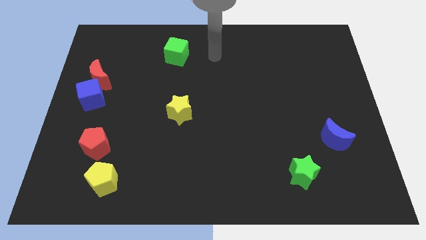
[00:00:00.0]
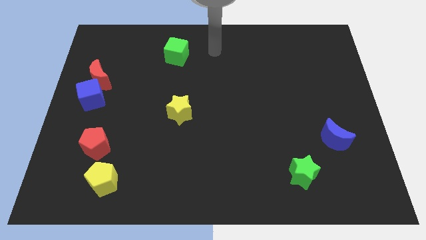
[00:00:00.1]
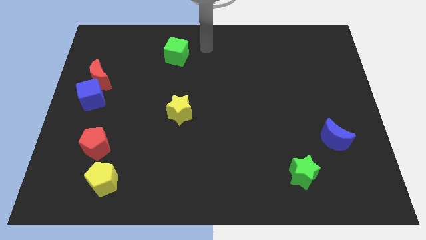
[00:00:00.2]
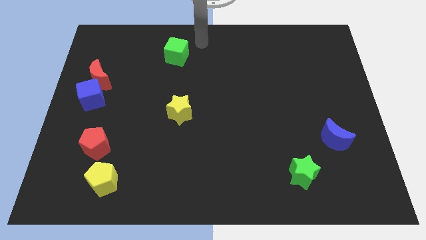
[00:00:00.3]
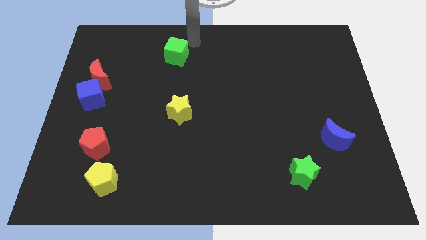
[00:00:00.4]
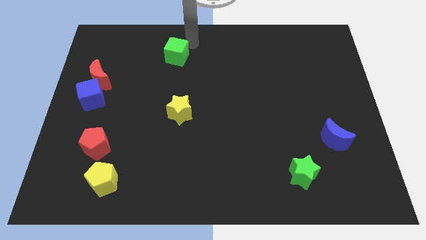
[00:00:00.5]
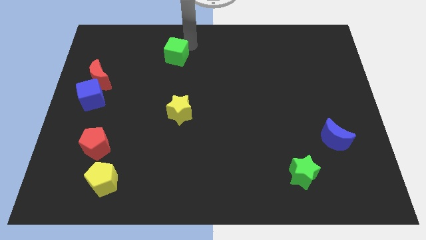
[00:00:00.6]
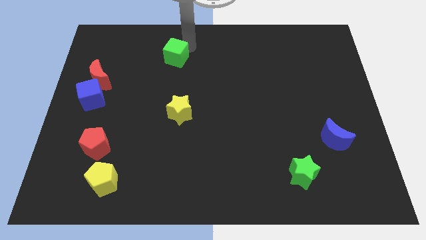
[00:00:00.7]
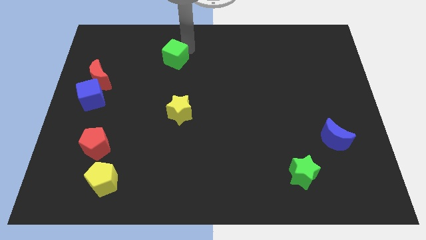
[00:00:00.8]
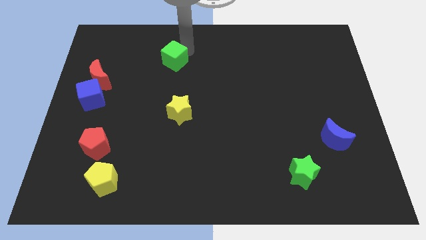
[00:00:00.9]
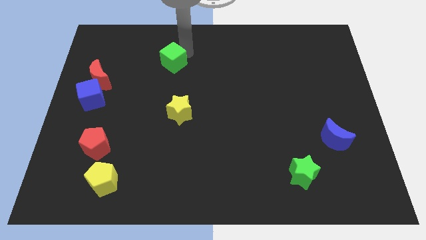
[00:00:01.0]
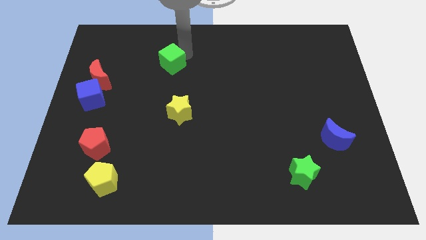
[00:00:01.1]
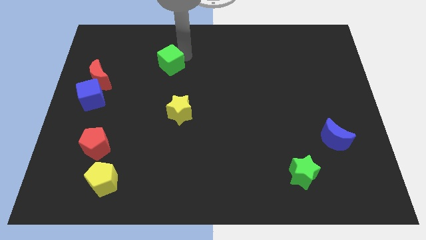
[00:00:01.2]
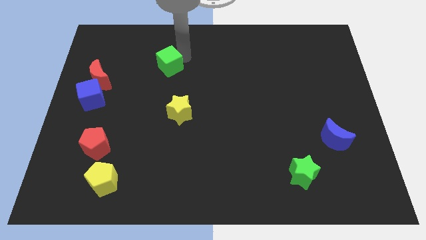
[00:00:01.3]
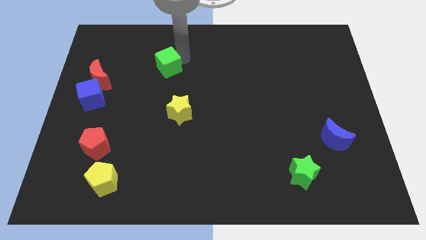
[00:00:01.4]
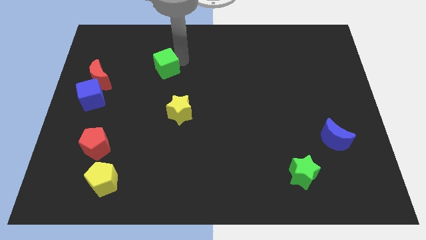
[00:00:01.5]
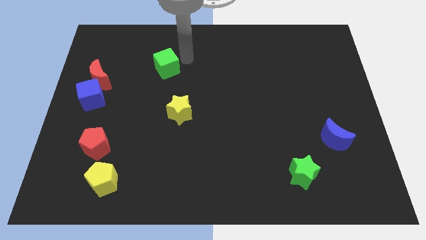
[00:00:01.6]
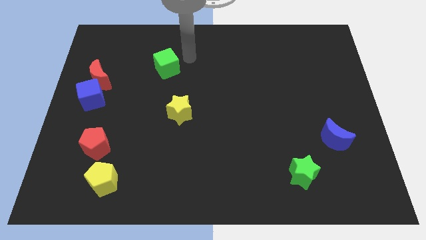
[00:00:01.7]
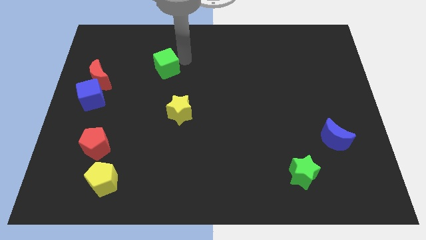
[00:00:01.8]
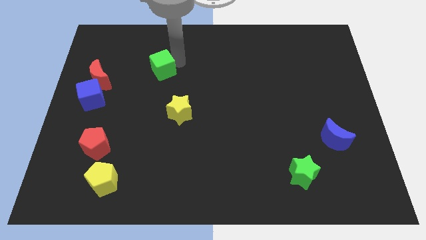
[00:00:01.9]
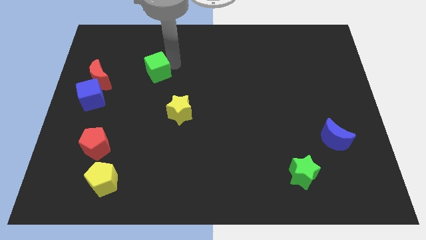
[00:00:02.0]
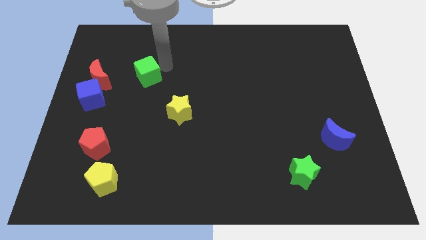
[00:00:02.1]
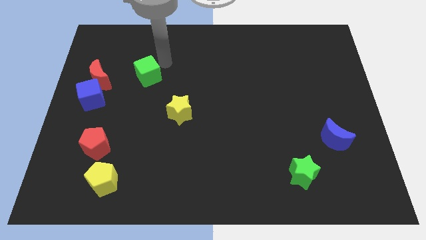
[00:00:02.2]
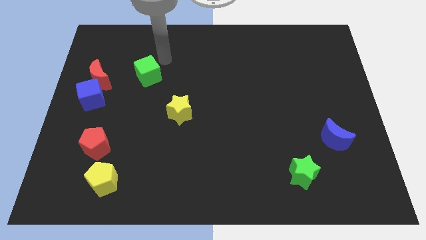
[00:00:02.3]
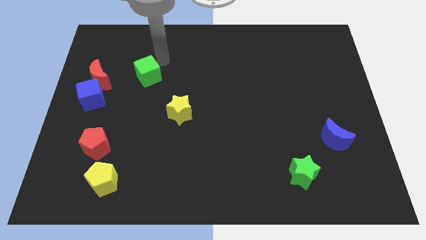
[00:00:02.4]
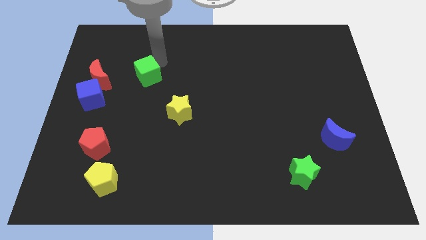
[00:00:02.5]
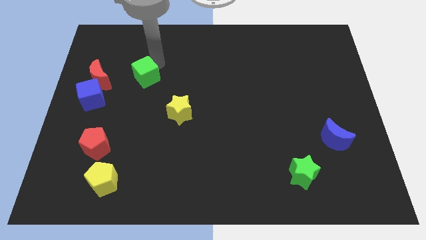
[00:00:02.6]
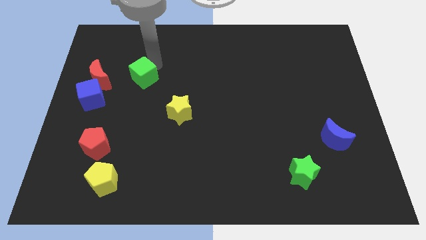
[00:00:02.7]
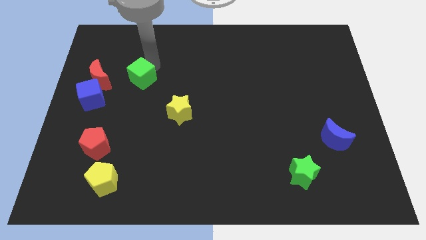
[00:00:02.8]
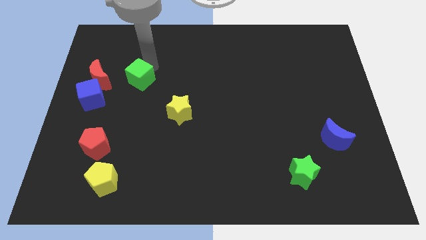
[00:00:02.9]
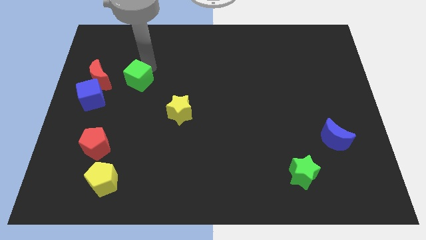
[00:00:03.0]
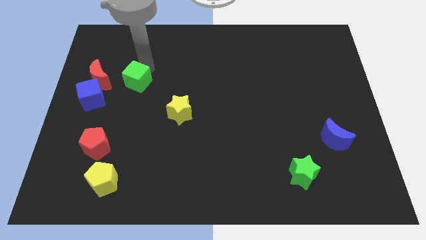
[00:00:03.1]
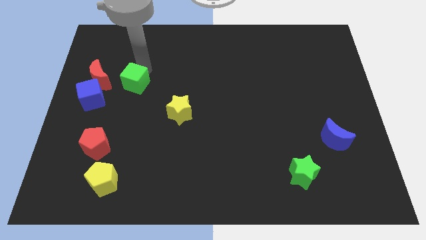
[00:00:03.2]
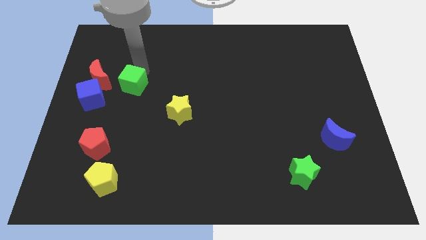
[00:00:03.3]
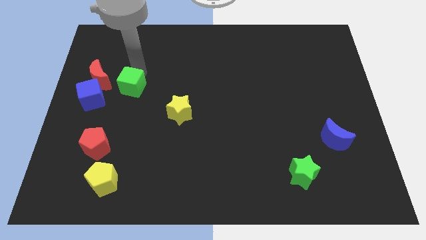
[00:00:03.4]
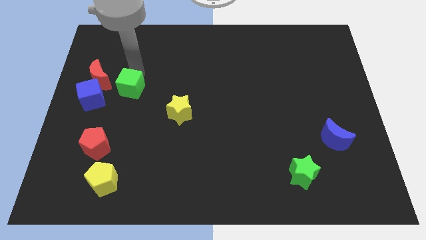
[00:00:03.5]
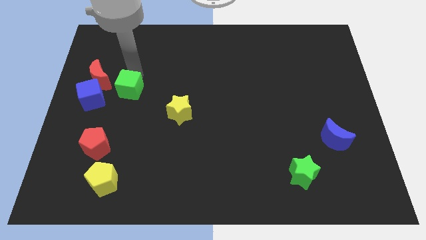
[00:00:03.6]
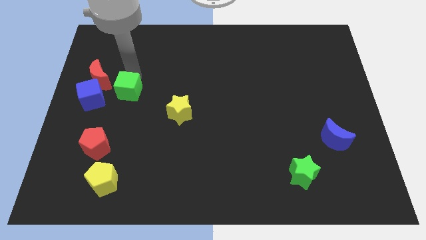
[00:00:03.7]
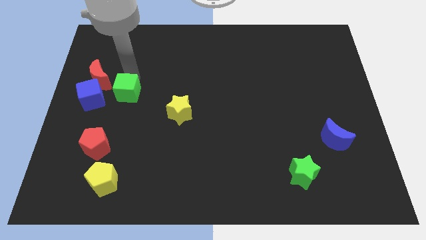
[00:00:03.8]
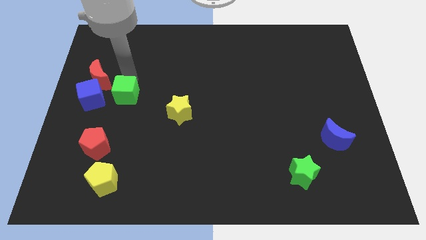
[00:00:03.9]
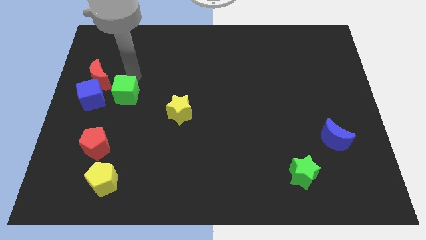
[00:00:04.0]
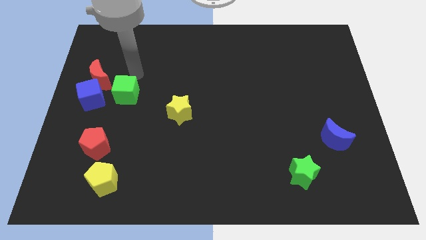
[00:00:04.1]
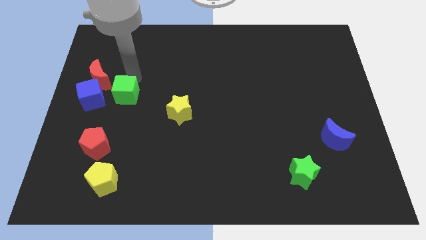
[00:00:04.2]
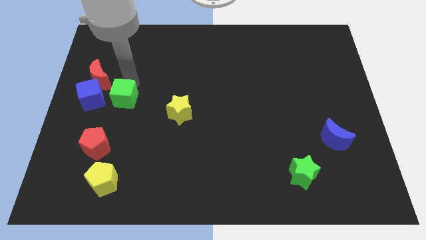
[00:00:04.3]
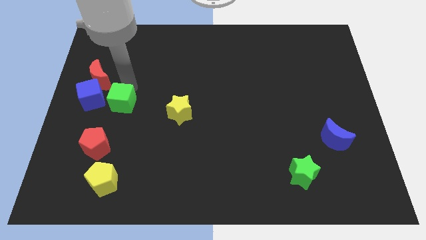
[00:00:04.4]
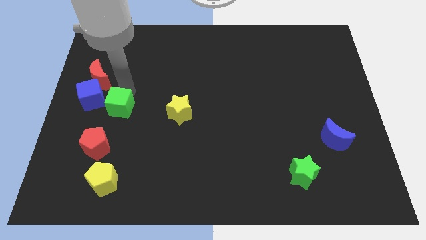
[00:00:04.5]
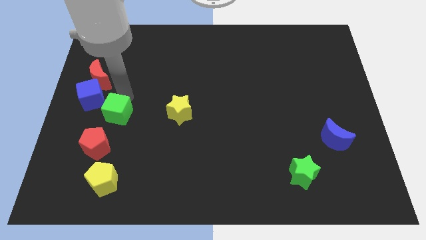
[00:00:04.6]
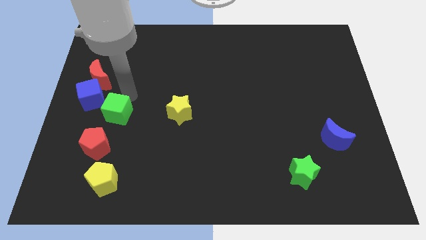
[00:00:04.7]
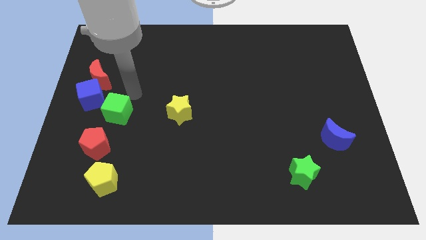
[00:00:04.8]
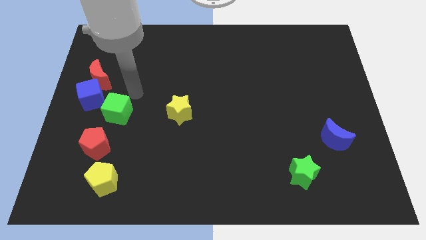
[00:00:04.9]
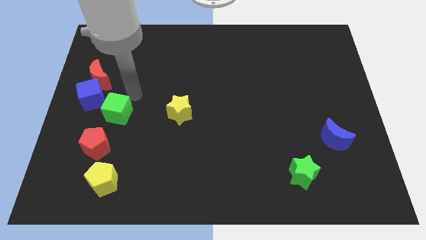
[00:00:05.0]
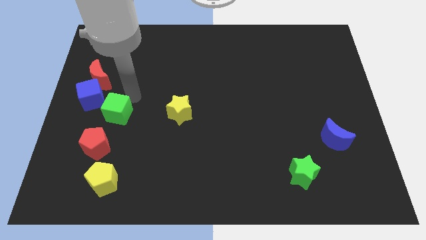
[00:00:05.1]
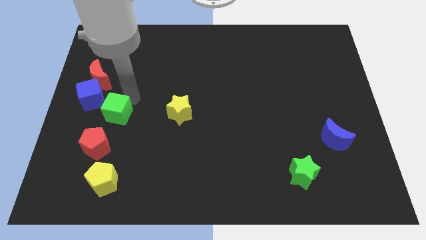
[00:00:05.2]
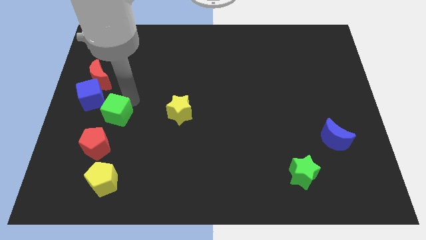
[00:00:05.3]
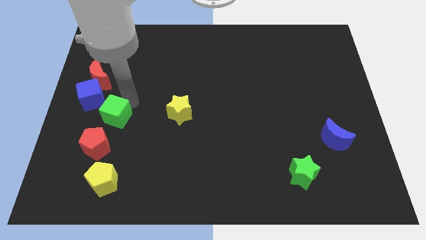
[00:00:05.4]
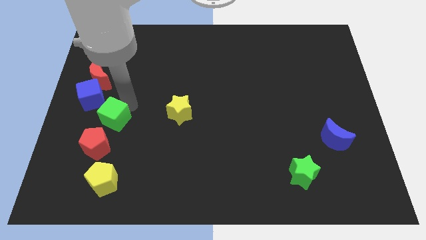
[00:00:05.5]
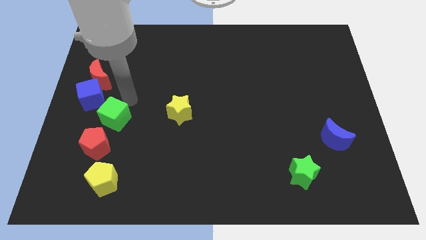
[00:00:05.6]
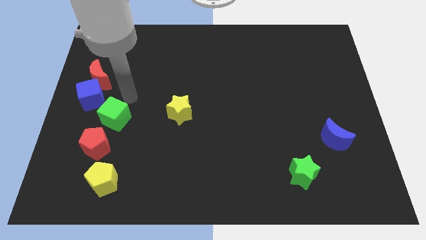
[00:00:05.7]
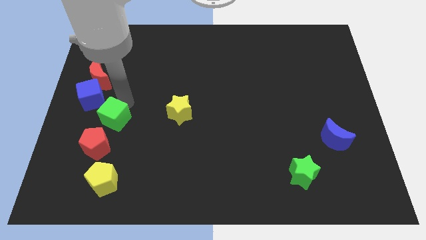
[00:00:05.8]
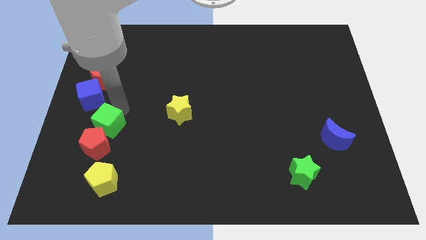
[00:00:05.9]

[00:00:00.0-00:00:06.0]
slide the green cube to the red pentagon

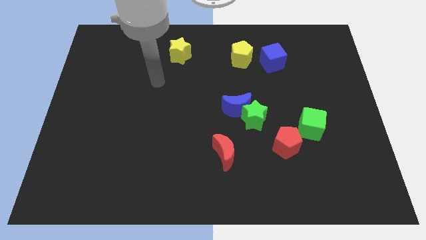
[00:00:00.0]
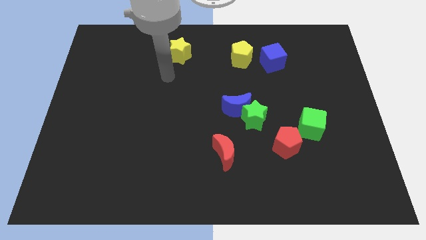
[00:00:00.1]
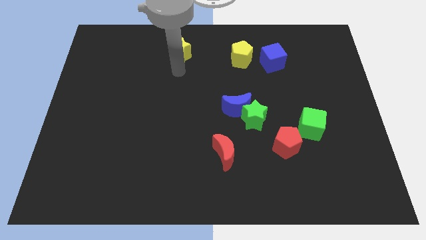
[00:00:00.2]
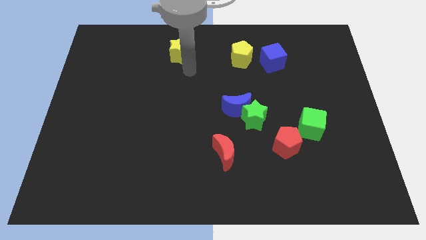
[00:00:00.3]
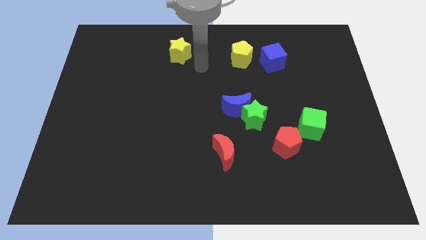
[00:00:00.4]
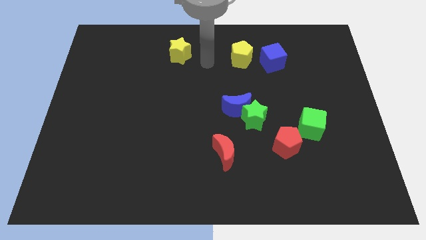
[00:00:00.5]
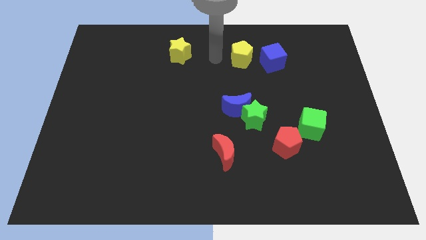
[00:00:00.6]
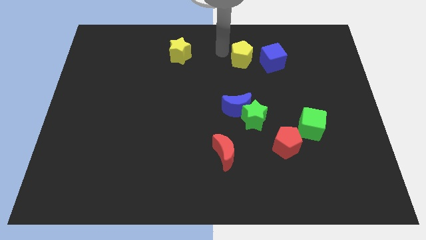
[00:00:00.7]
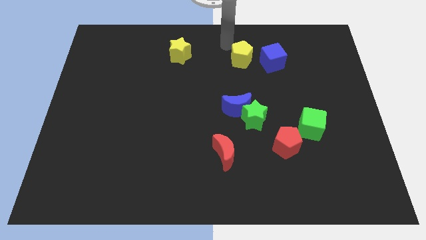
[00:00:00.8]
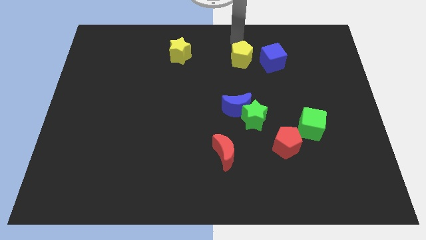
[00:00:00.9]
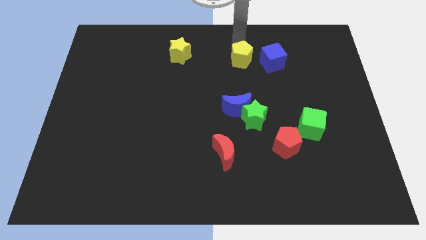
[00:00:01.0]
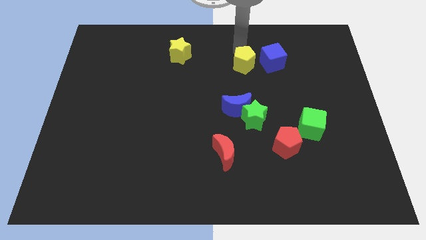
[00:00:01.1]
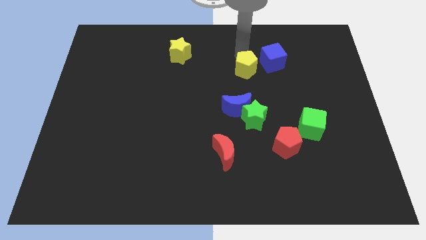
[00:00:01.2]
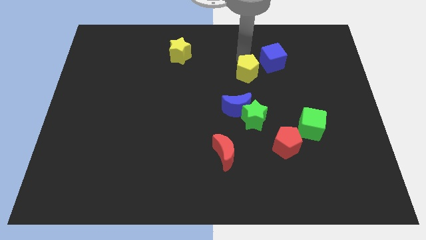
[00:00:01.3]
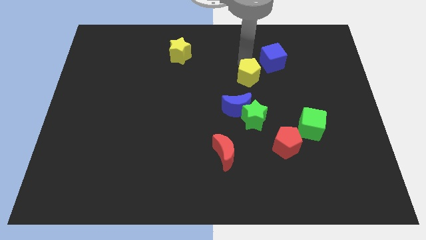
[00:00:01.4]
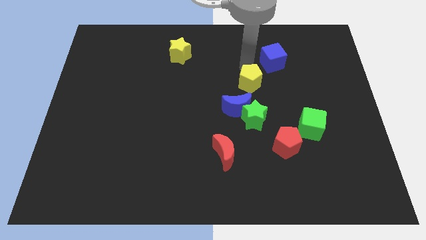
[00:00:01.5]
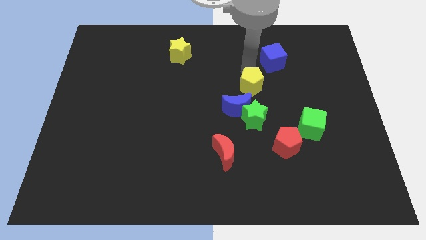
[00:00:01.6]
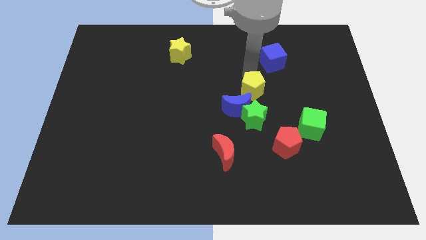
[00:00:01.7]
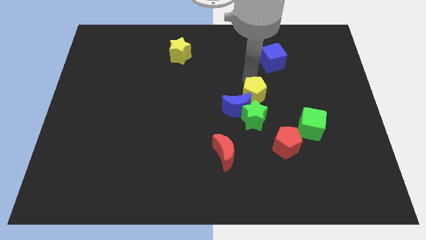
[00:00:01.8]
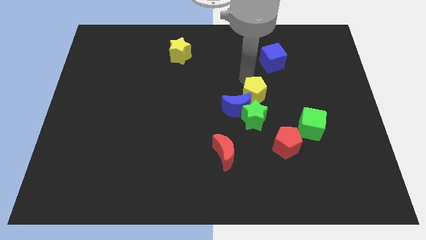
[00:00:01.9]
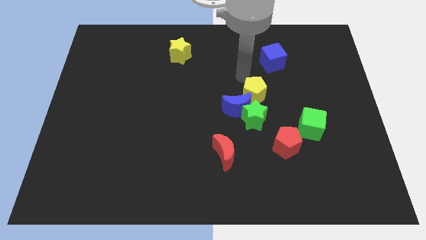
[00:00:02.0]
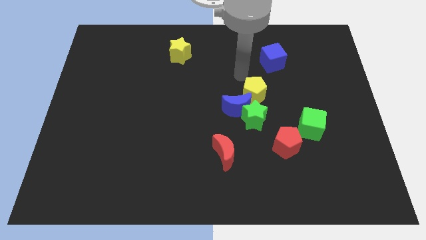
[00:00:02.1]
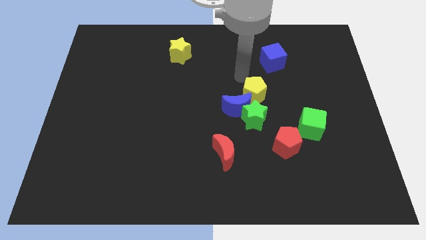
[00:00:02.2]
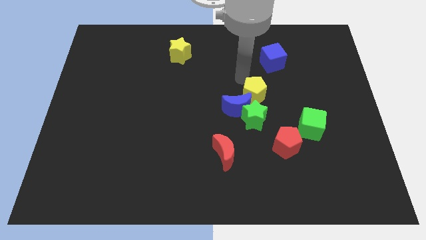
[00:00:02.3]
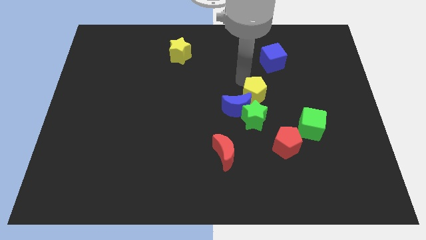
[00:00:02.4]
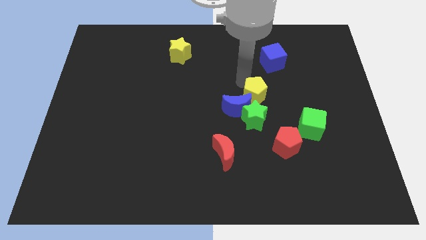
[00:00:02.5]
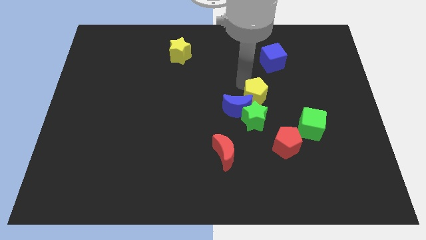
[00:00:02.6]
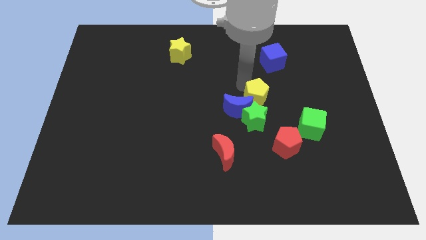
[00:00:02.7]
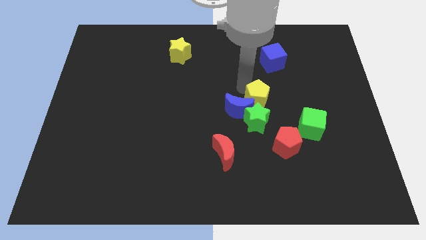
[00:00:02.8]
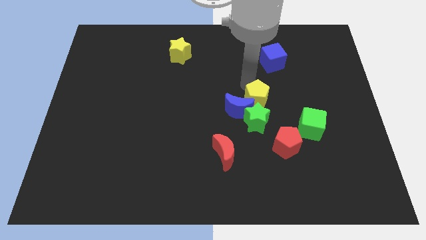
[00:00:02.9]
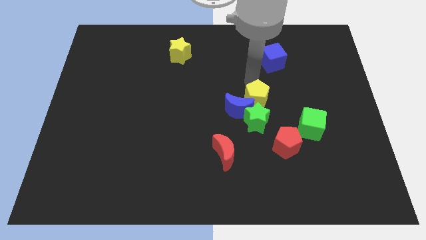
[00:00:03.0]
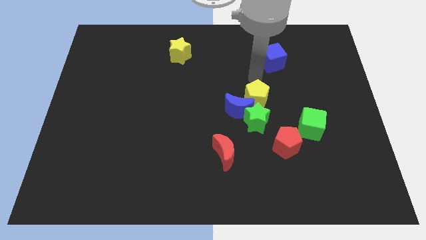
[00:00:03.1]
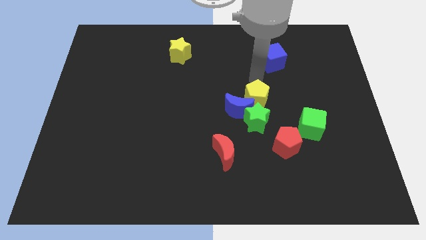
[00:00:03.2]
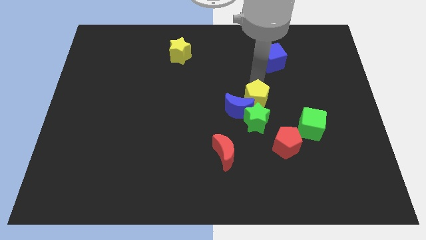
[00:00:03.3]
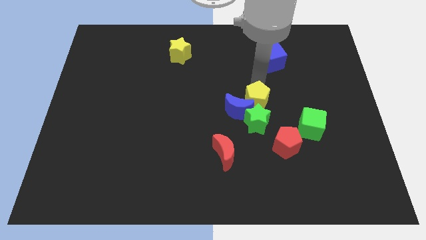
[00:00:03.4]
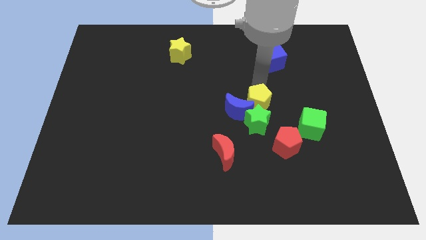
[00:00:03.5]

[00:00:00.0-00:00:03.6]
push the yellow pentagon towards the green star
